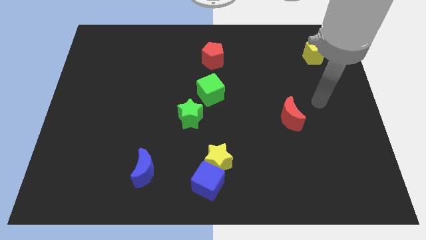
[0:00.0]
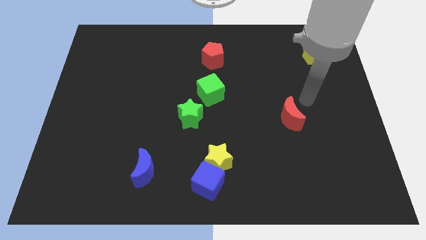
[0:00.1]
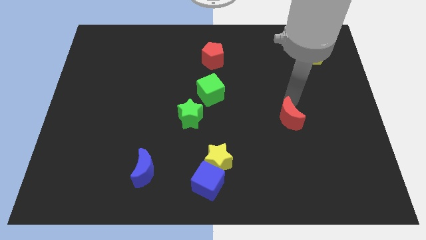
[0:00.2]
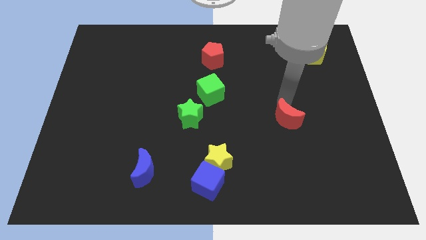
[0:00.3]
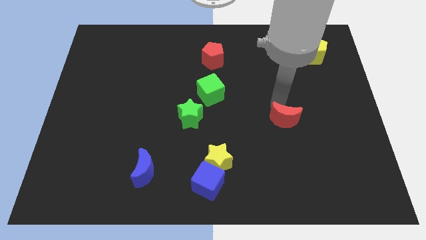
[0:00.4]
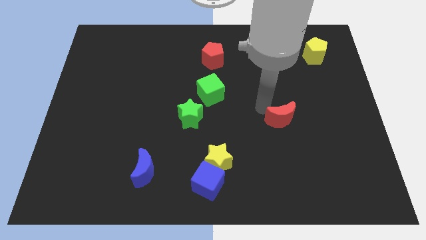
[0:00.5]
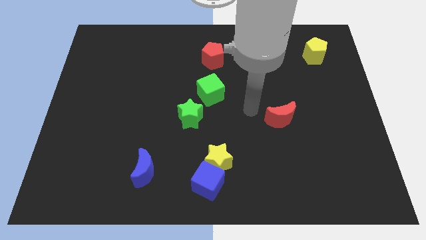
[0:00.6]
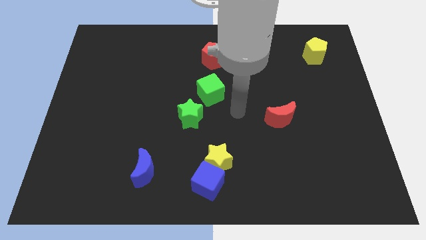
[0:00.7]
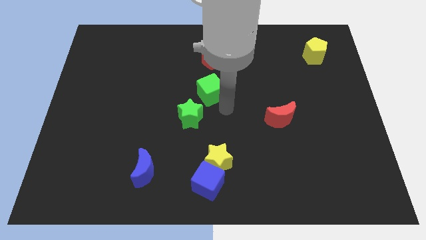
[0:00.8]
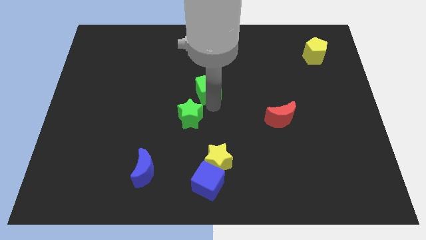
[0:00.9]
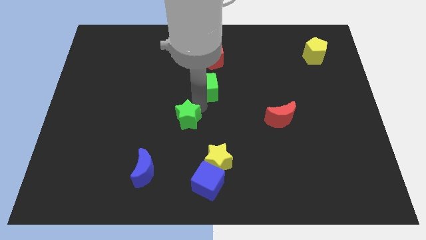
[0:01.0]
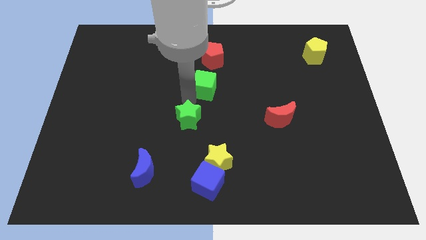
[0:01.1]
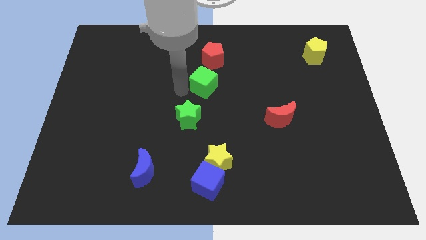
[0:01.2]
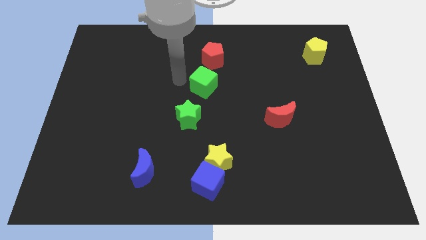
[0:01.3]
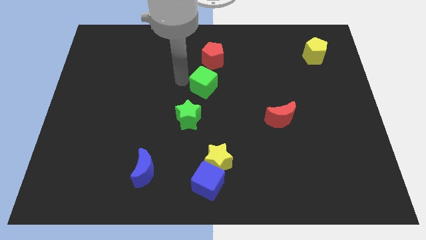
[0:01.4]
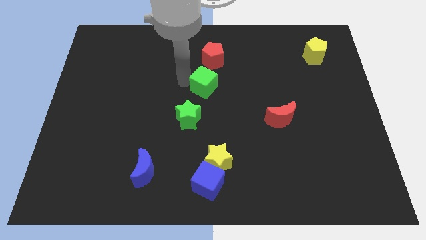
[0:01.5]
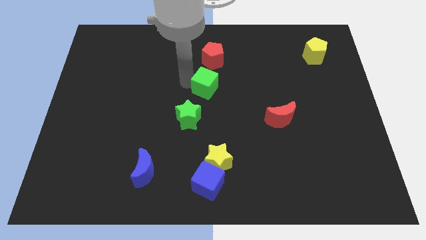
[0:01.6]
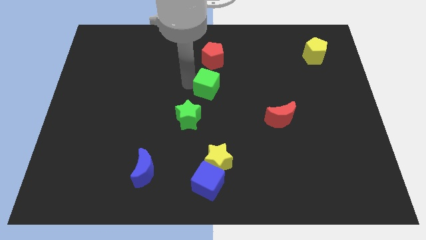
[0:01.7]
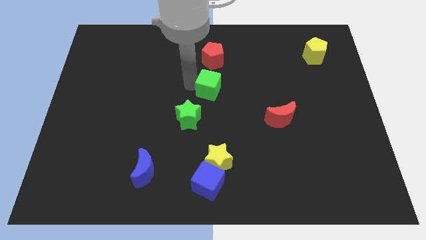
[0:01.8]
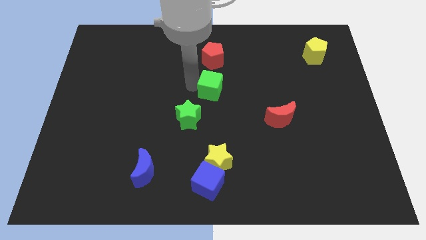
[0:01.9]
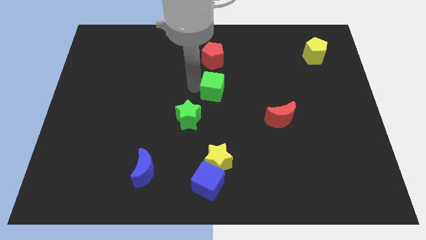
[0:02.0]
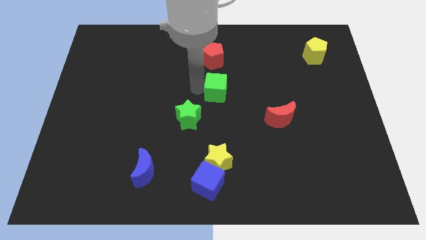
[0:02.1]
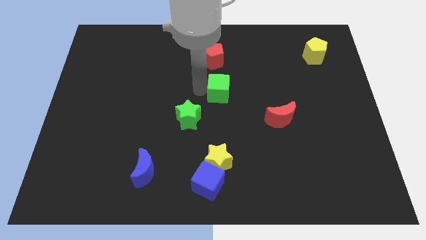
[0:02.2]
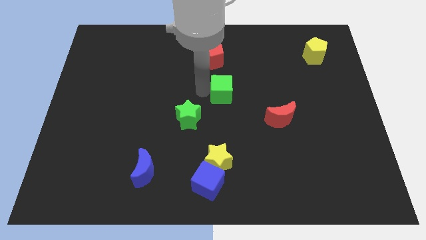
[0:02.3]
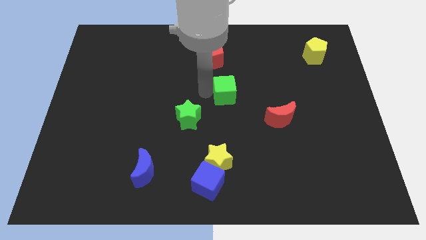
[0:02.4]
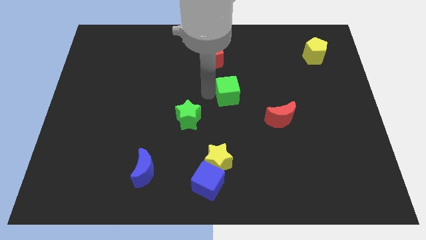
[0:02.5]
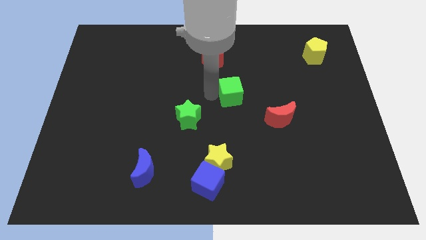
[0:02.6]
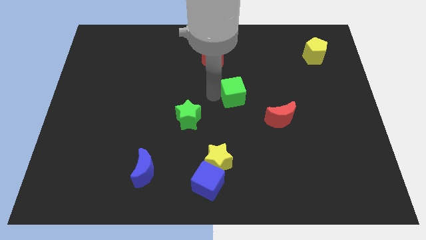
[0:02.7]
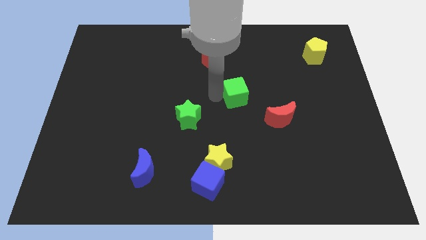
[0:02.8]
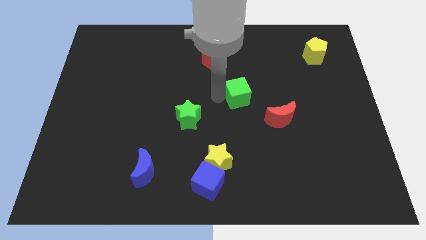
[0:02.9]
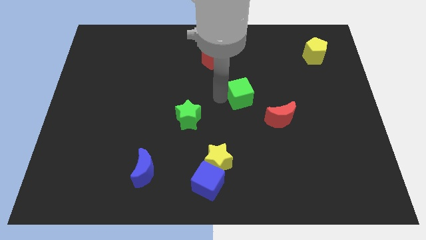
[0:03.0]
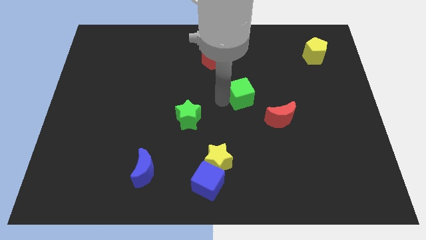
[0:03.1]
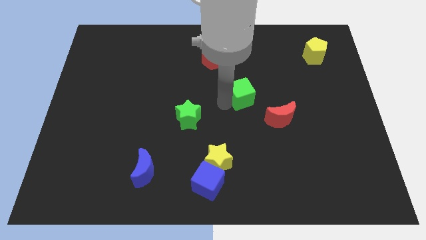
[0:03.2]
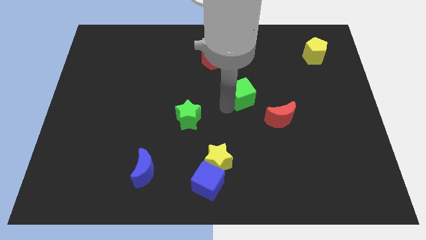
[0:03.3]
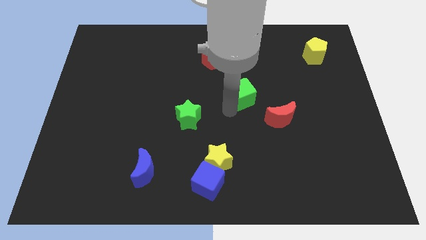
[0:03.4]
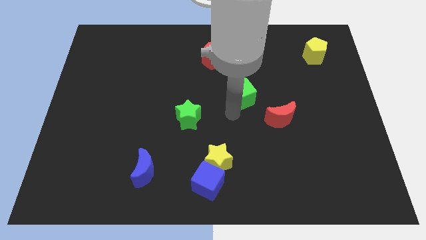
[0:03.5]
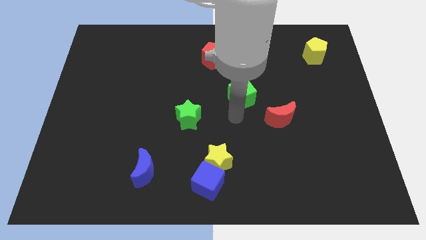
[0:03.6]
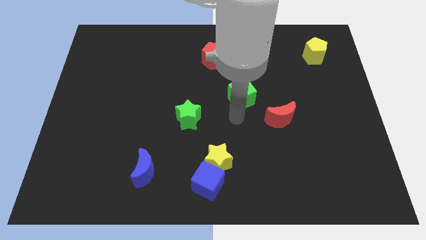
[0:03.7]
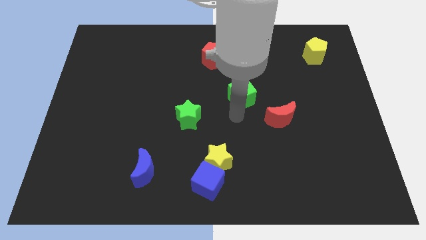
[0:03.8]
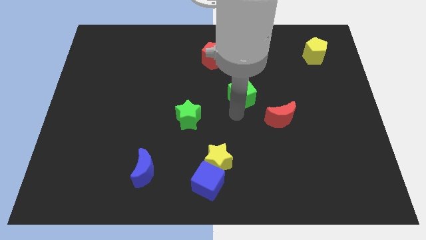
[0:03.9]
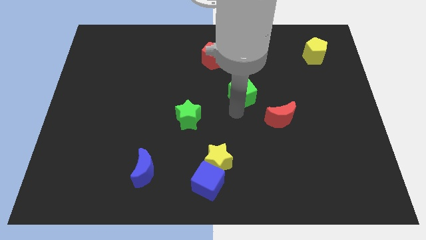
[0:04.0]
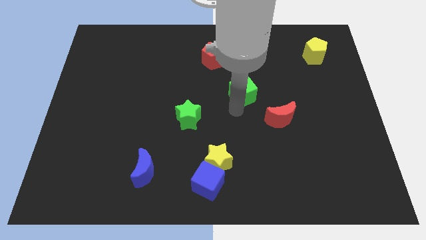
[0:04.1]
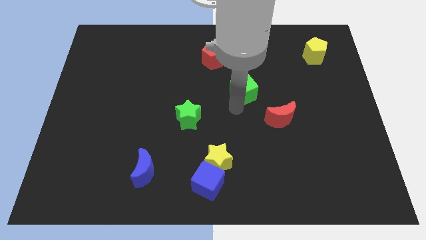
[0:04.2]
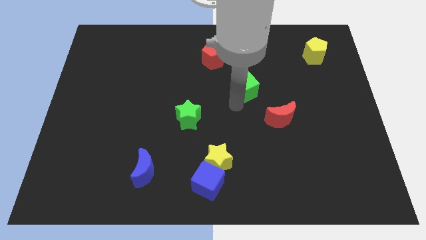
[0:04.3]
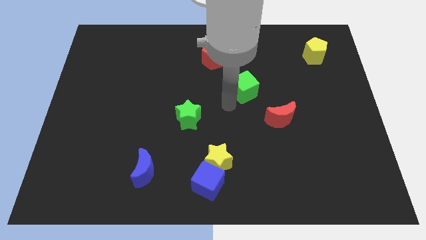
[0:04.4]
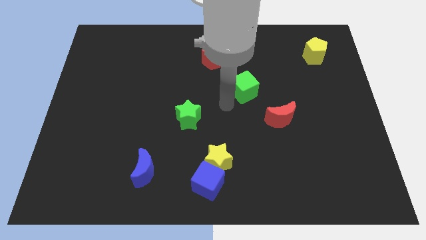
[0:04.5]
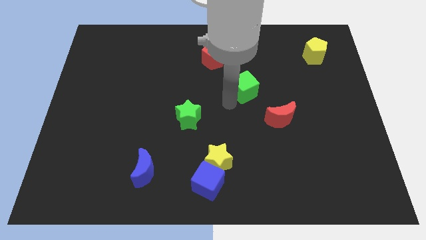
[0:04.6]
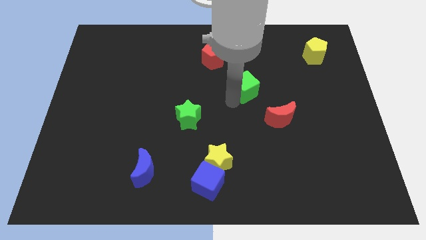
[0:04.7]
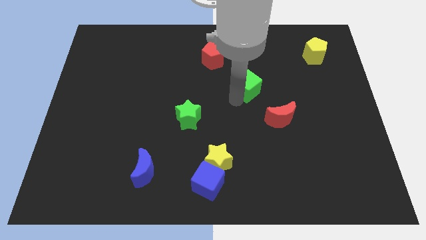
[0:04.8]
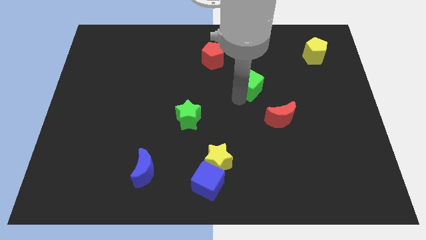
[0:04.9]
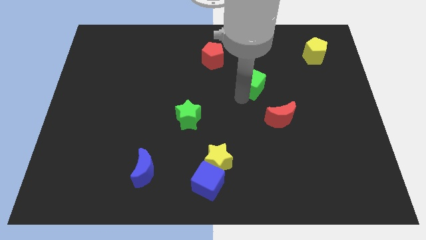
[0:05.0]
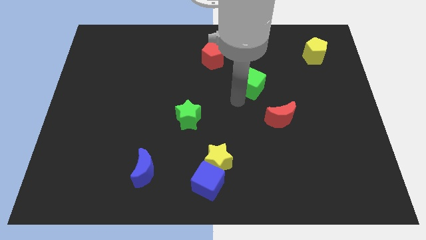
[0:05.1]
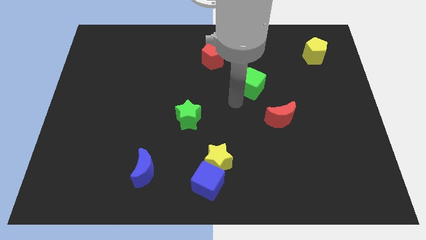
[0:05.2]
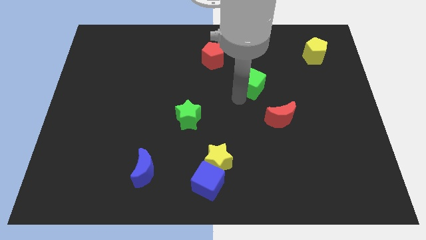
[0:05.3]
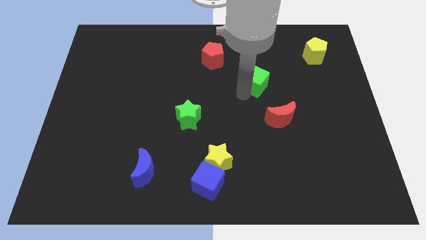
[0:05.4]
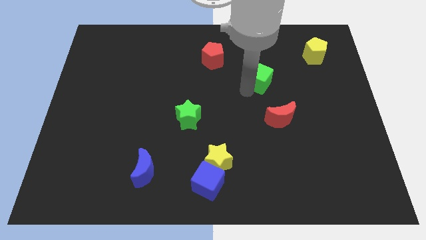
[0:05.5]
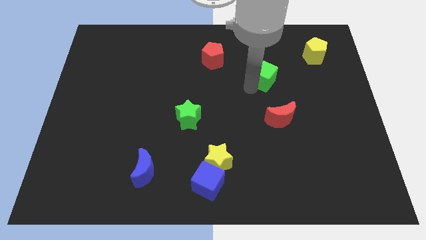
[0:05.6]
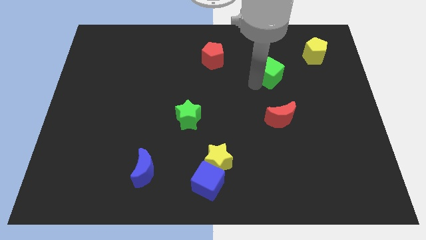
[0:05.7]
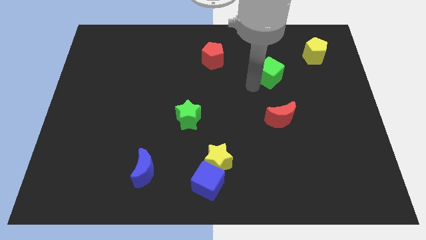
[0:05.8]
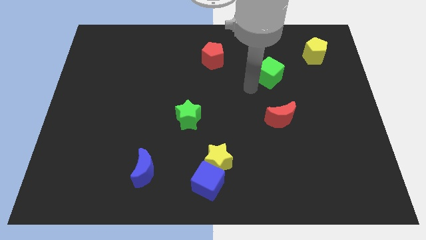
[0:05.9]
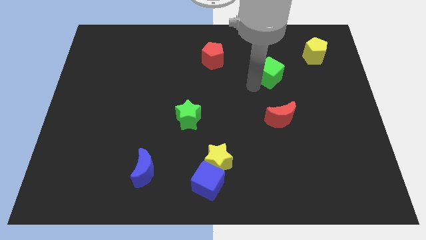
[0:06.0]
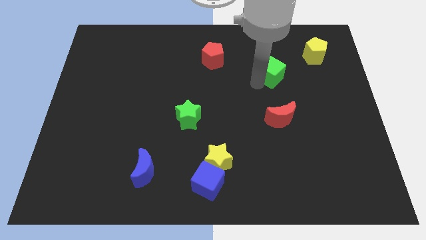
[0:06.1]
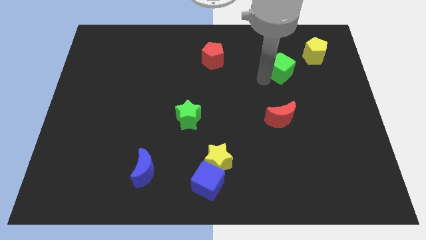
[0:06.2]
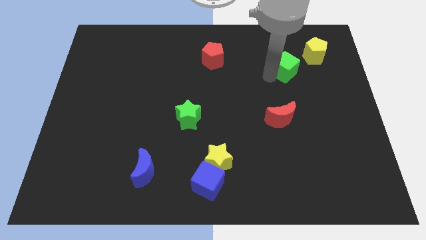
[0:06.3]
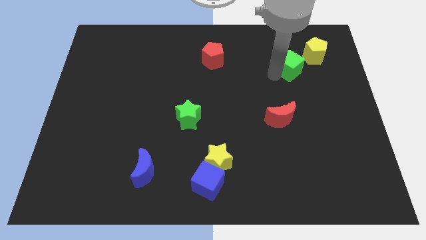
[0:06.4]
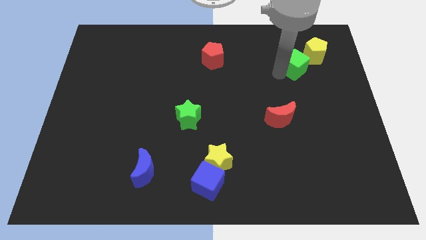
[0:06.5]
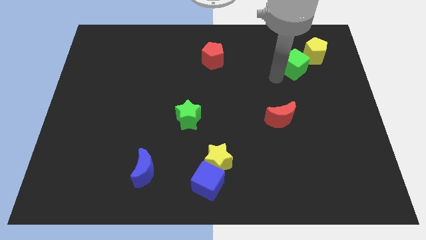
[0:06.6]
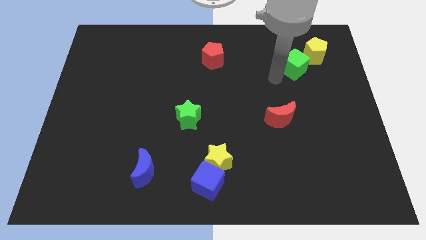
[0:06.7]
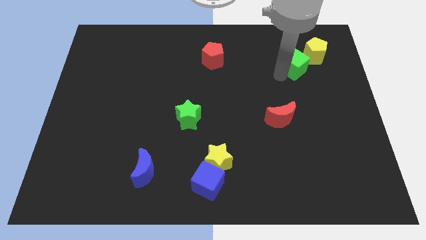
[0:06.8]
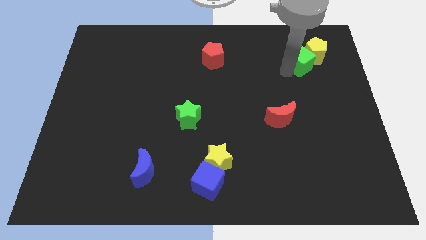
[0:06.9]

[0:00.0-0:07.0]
move the green cube close to the yellow pentagon
